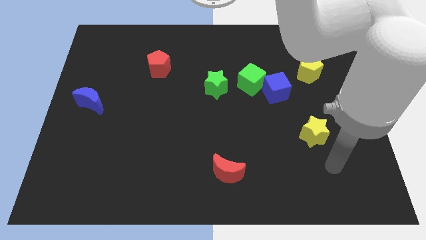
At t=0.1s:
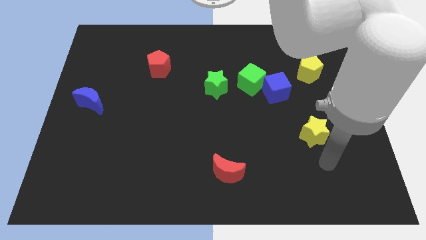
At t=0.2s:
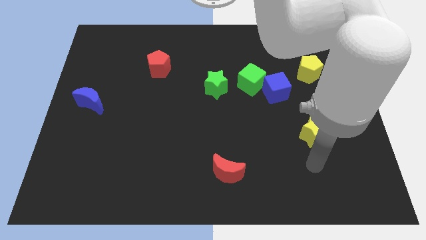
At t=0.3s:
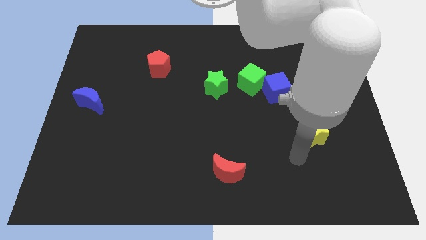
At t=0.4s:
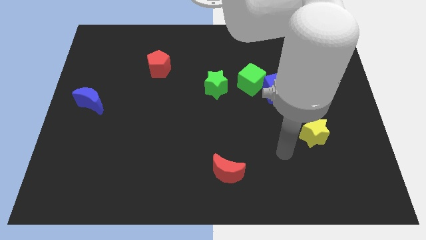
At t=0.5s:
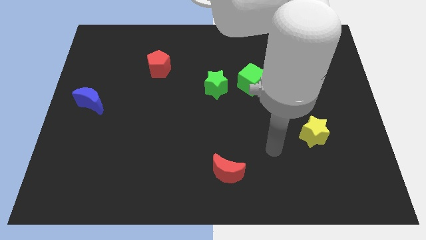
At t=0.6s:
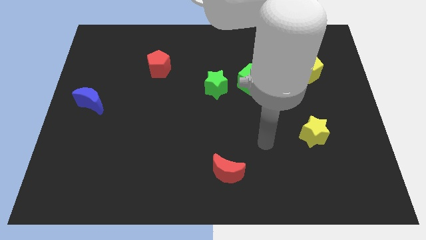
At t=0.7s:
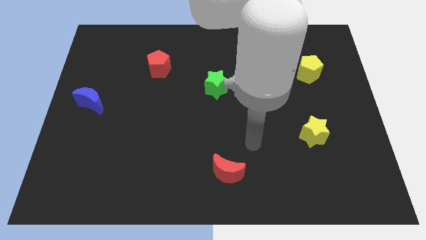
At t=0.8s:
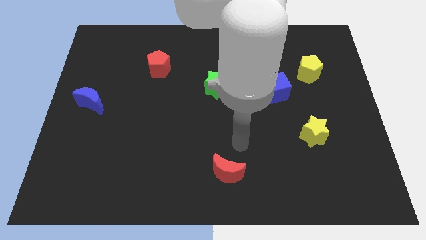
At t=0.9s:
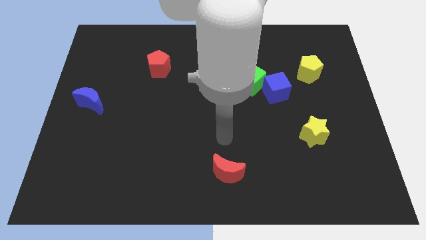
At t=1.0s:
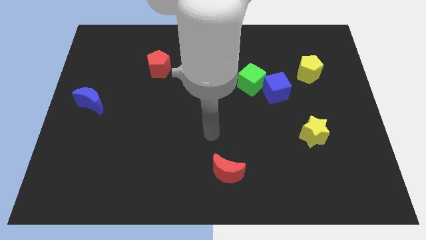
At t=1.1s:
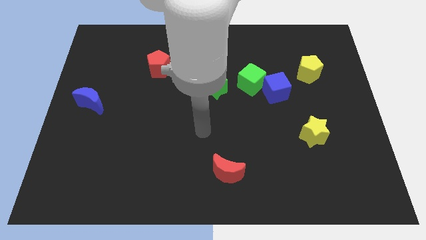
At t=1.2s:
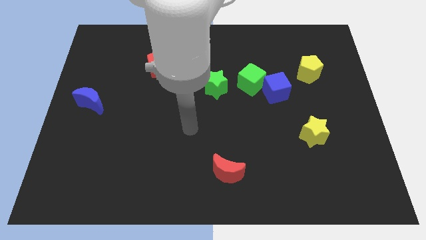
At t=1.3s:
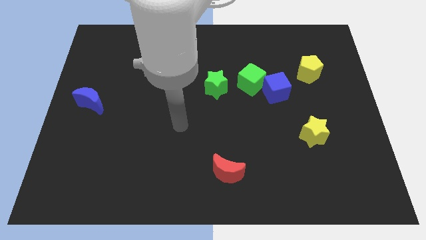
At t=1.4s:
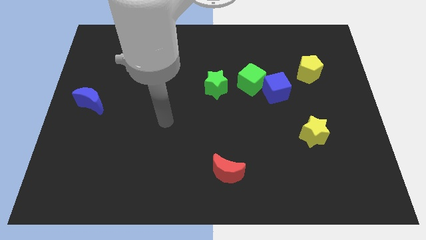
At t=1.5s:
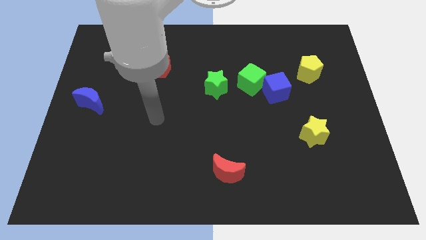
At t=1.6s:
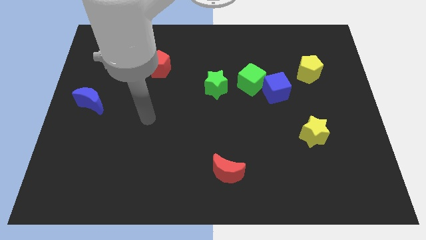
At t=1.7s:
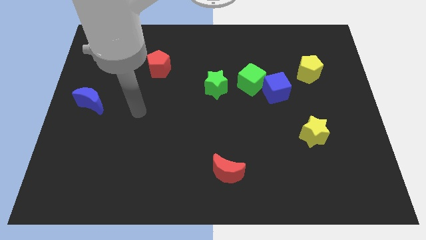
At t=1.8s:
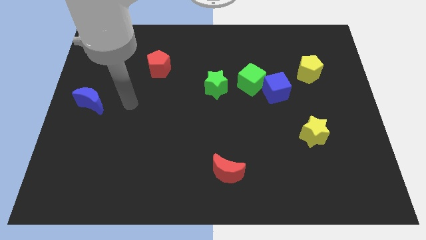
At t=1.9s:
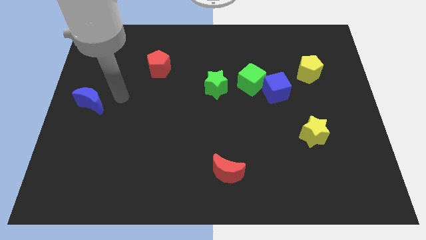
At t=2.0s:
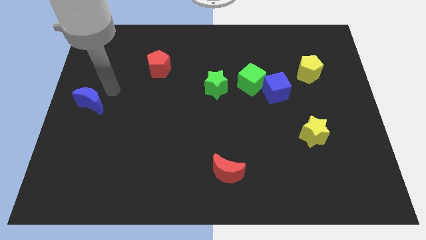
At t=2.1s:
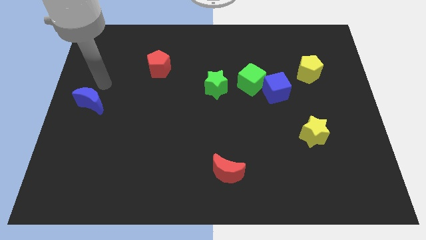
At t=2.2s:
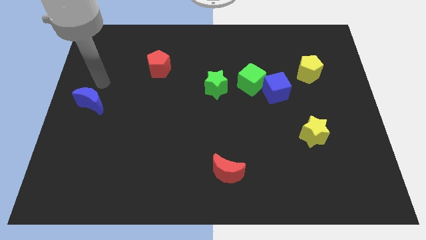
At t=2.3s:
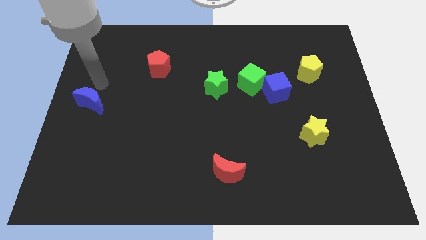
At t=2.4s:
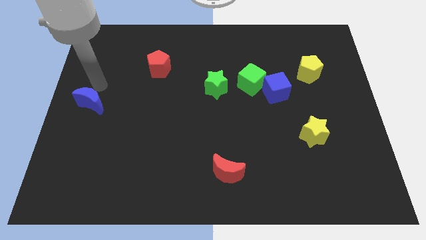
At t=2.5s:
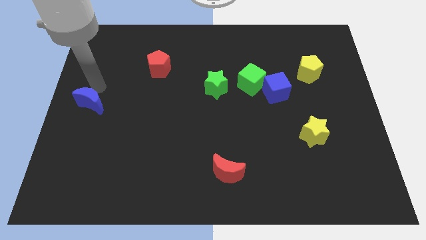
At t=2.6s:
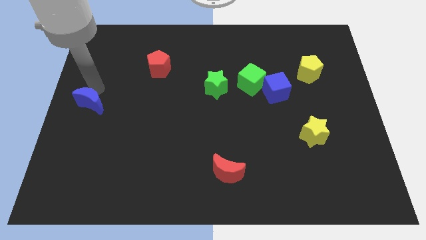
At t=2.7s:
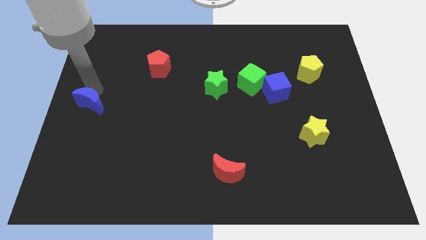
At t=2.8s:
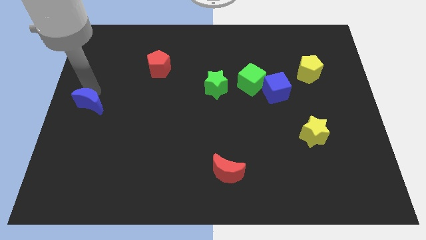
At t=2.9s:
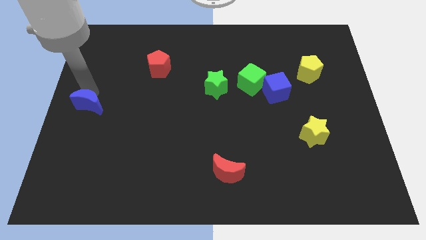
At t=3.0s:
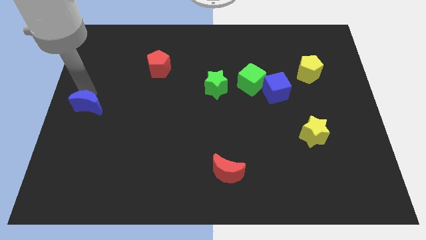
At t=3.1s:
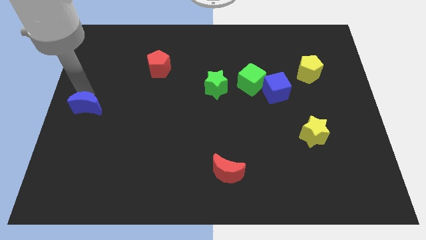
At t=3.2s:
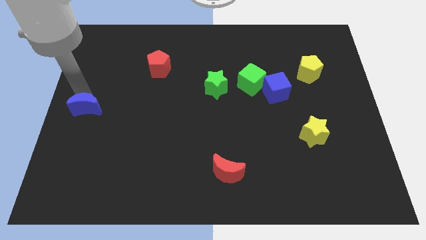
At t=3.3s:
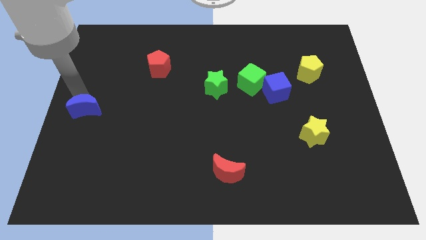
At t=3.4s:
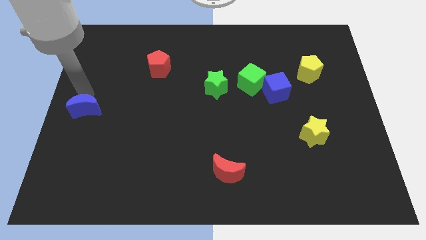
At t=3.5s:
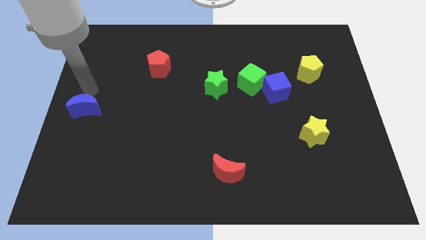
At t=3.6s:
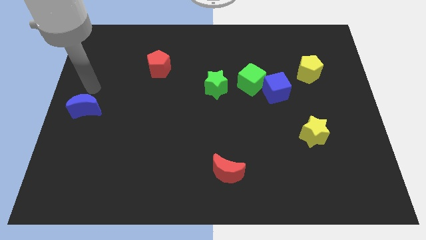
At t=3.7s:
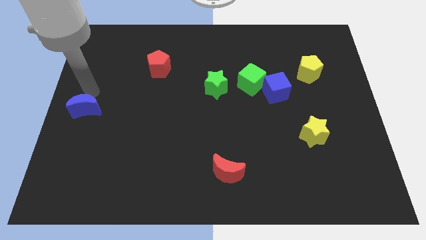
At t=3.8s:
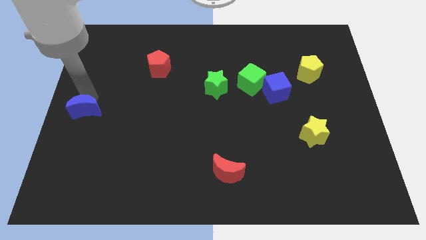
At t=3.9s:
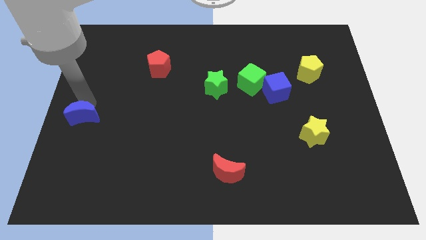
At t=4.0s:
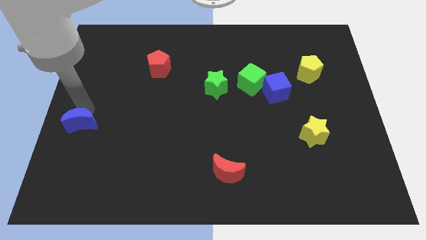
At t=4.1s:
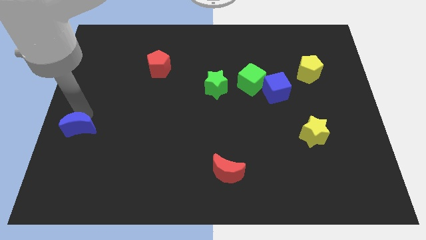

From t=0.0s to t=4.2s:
move the blue moon a little bit down

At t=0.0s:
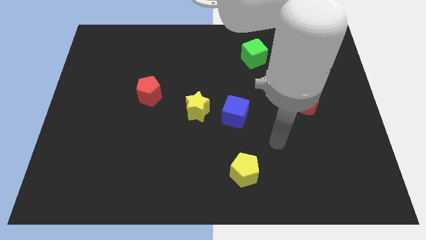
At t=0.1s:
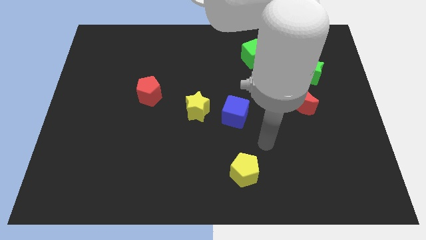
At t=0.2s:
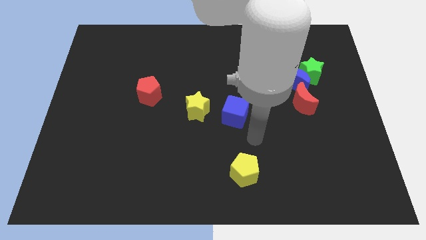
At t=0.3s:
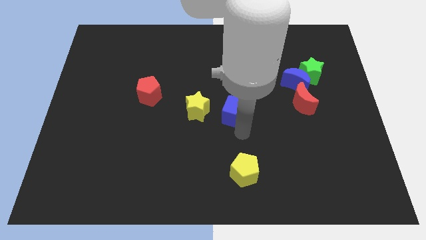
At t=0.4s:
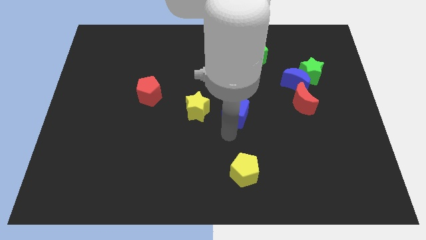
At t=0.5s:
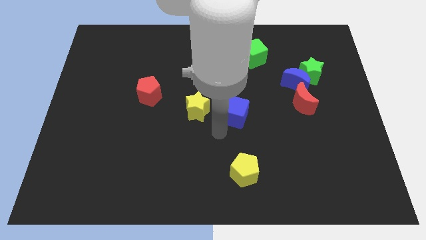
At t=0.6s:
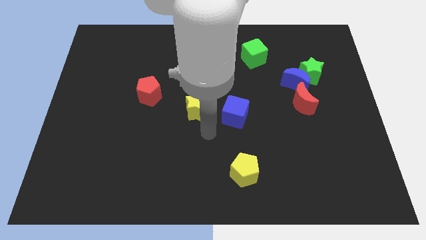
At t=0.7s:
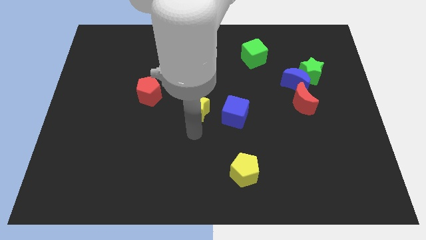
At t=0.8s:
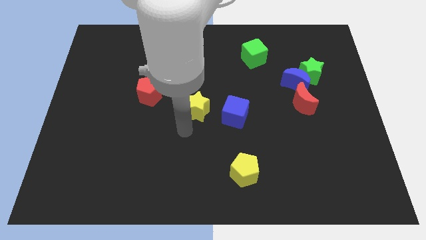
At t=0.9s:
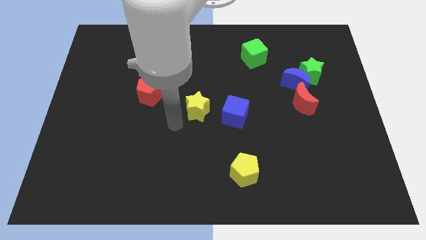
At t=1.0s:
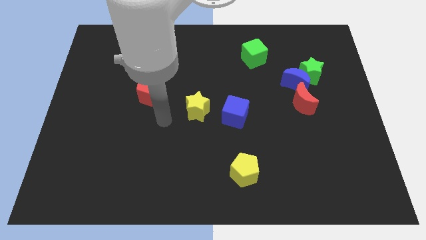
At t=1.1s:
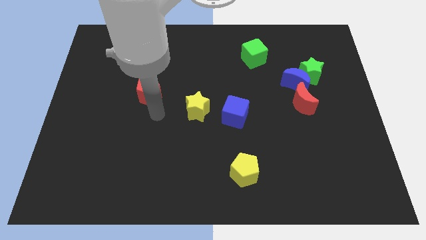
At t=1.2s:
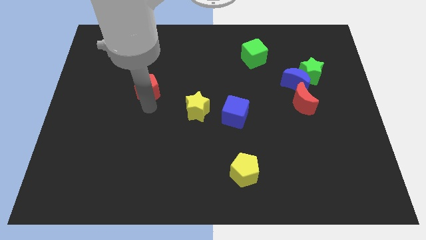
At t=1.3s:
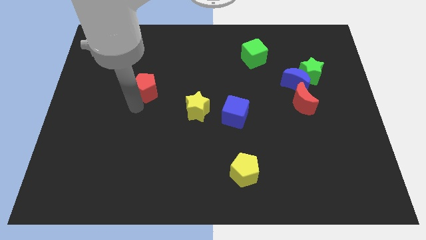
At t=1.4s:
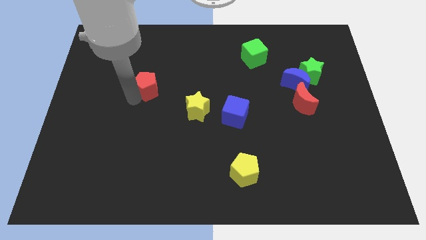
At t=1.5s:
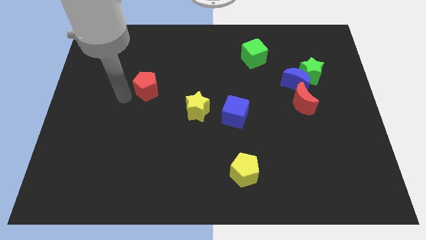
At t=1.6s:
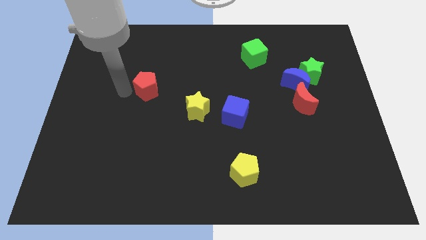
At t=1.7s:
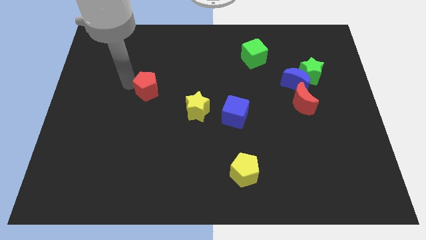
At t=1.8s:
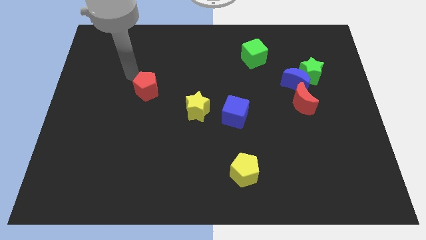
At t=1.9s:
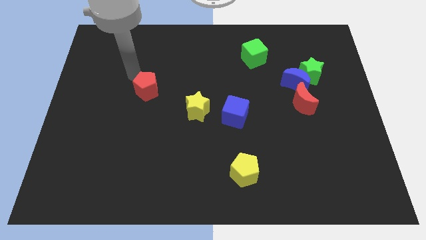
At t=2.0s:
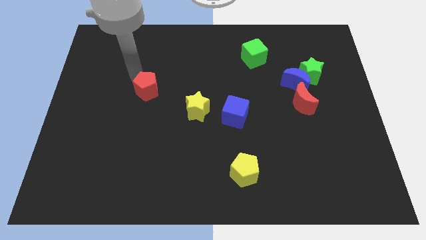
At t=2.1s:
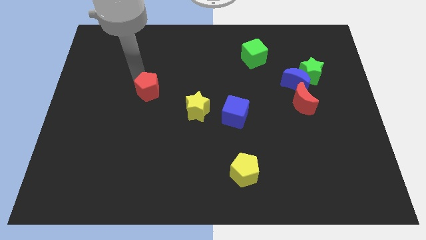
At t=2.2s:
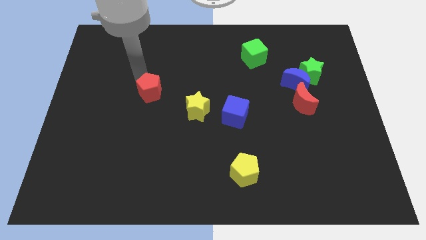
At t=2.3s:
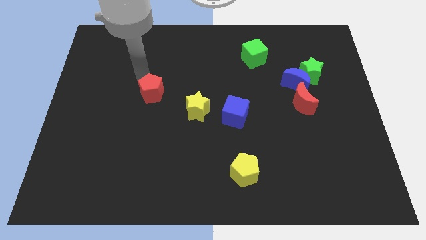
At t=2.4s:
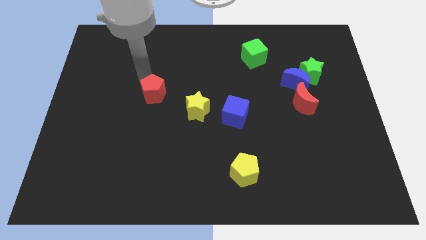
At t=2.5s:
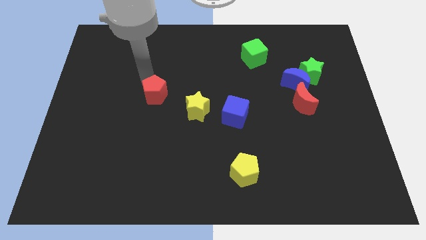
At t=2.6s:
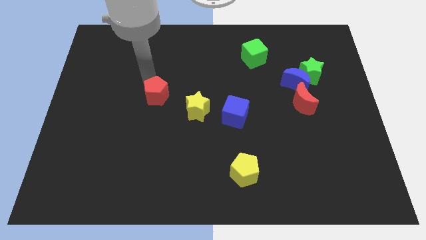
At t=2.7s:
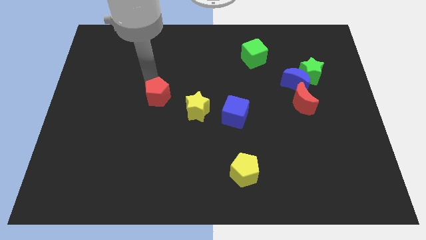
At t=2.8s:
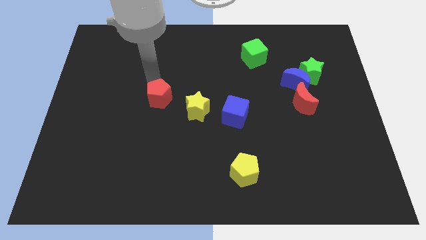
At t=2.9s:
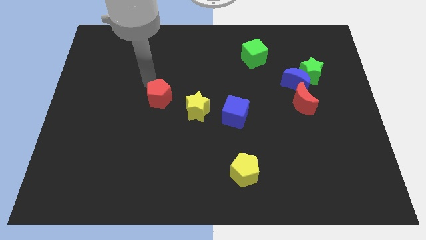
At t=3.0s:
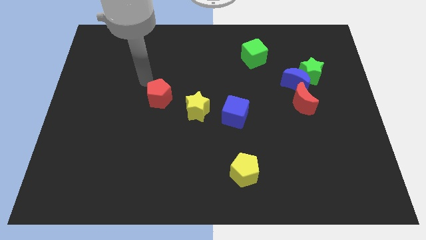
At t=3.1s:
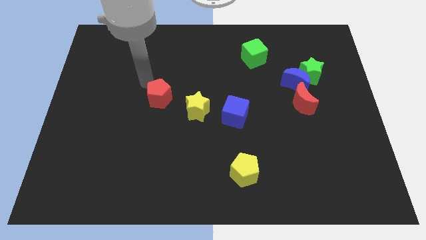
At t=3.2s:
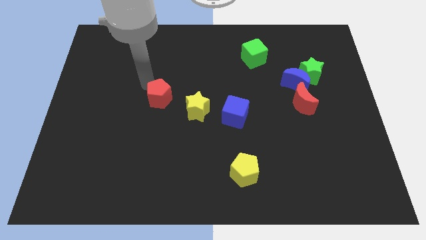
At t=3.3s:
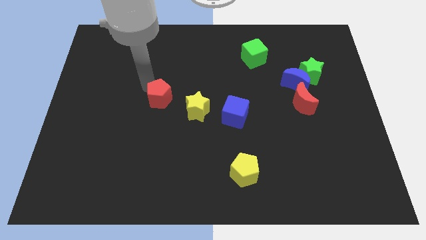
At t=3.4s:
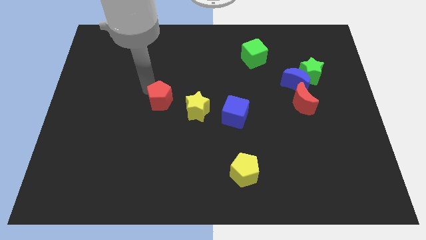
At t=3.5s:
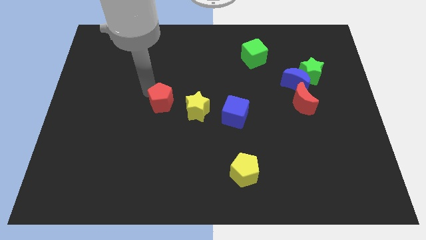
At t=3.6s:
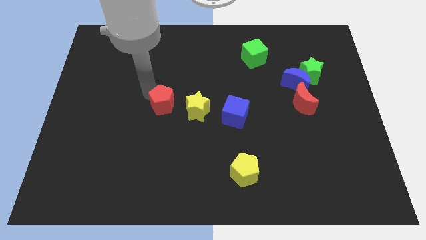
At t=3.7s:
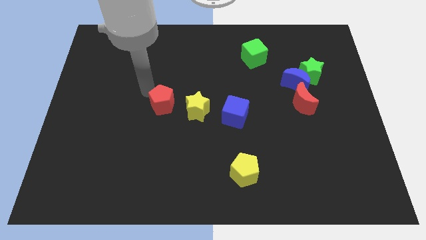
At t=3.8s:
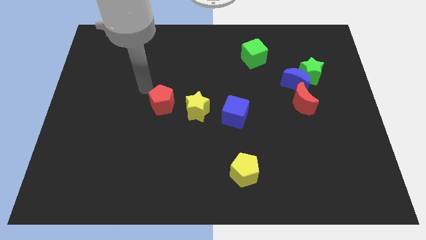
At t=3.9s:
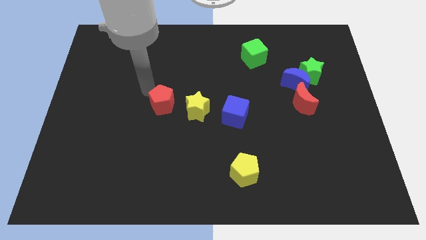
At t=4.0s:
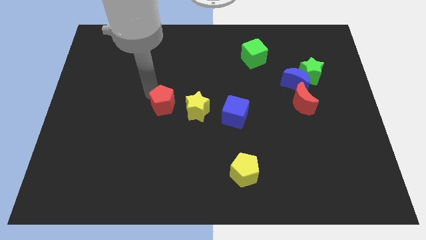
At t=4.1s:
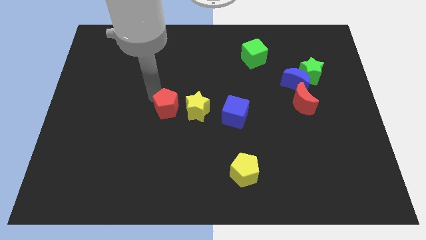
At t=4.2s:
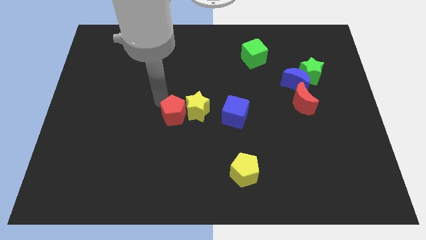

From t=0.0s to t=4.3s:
move the red pentagon downwards and then to the right a bit
